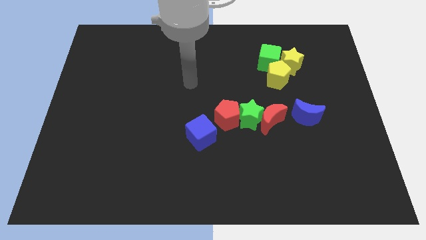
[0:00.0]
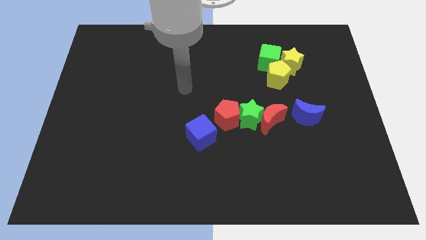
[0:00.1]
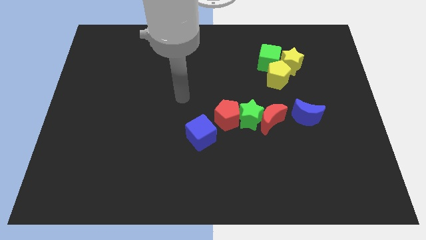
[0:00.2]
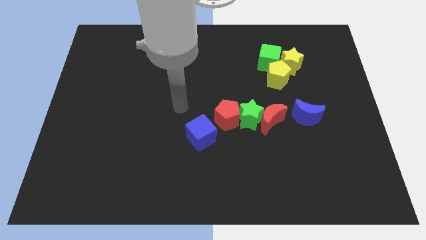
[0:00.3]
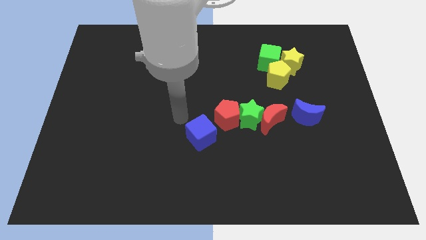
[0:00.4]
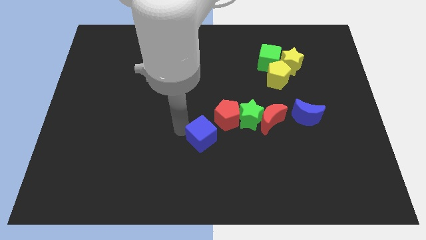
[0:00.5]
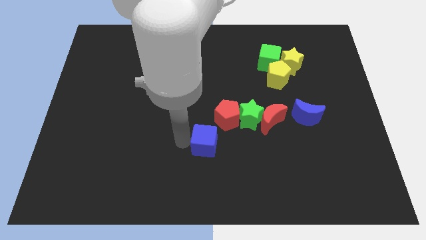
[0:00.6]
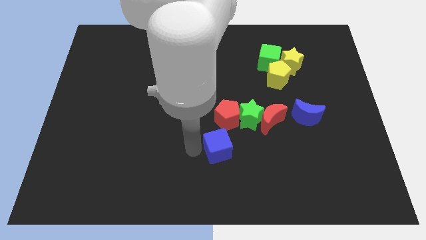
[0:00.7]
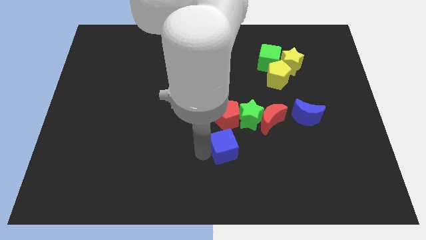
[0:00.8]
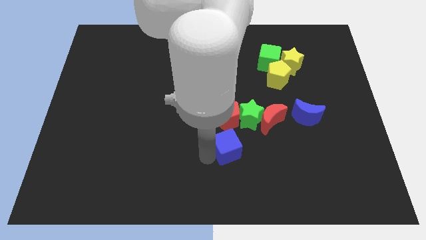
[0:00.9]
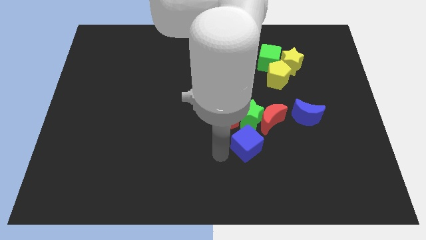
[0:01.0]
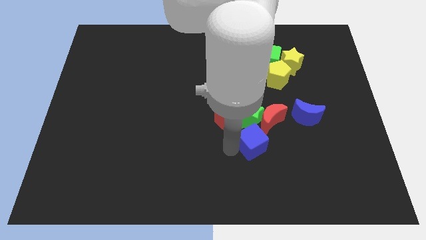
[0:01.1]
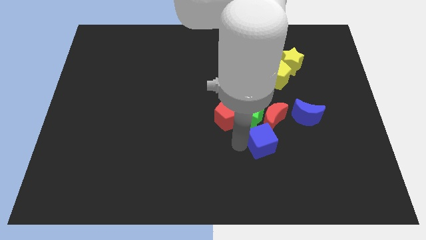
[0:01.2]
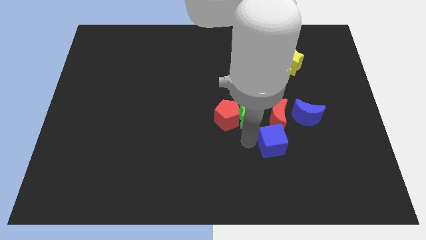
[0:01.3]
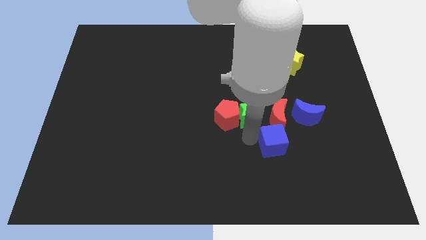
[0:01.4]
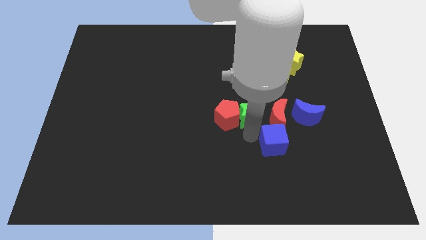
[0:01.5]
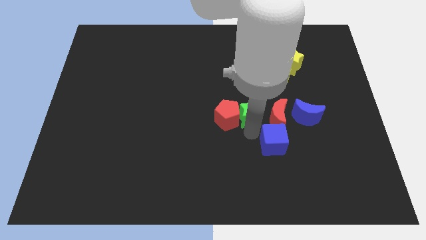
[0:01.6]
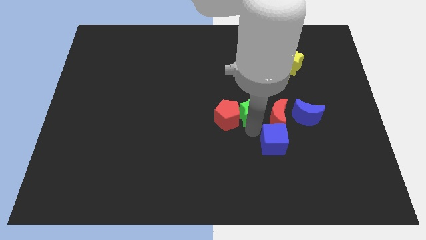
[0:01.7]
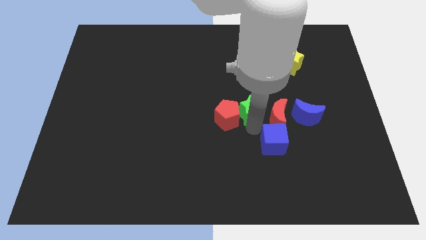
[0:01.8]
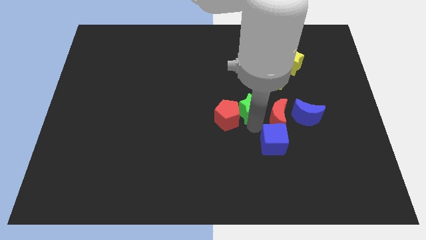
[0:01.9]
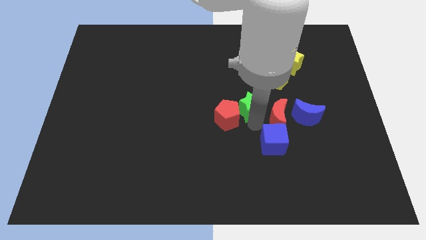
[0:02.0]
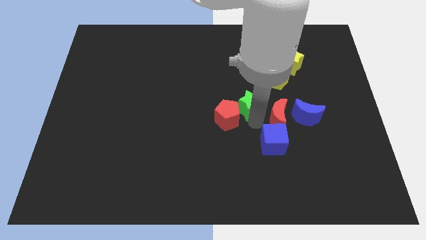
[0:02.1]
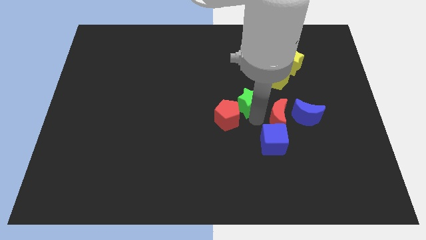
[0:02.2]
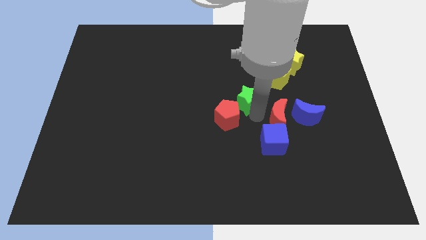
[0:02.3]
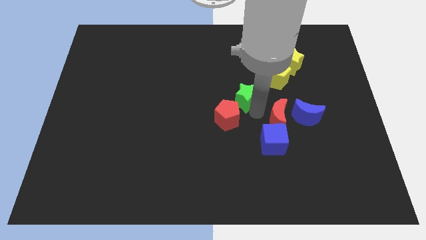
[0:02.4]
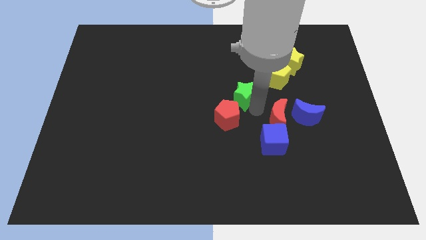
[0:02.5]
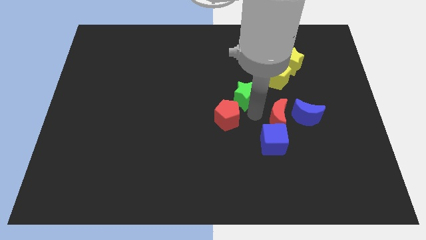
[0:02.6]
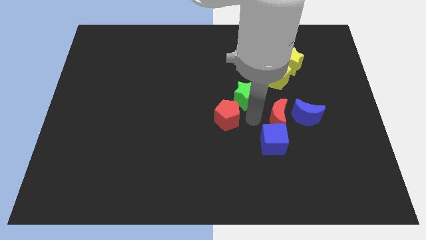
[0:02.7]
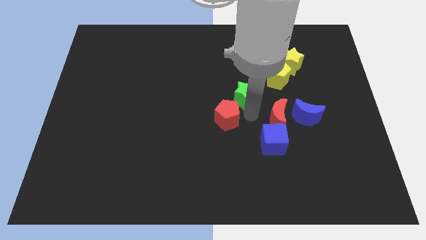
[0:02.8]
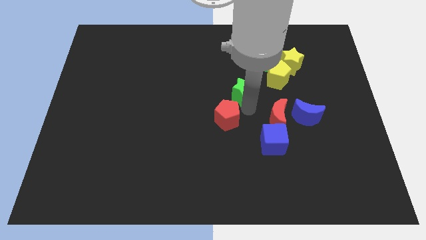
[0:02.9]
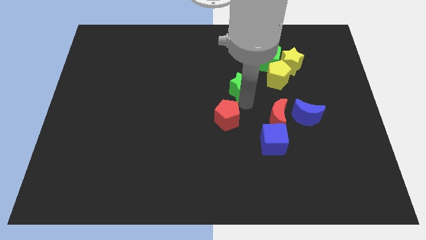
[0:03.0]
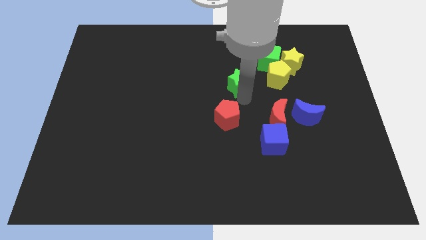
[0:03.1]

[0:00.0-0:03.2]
separate the green star from the red pentagon and red moon

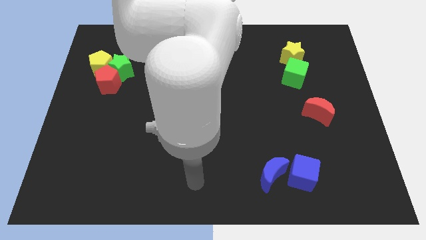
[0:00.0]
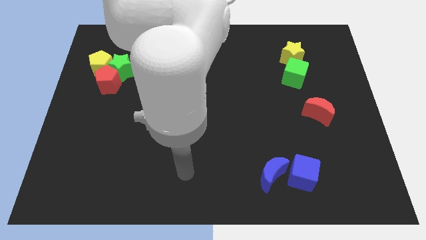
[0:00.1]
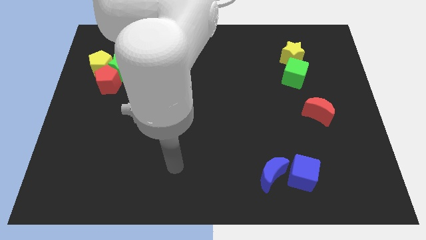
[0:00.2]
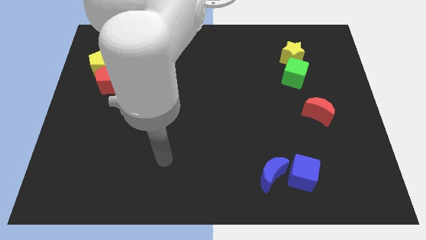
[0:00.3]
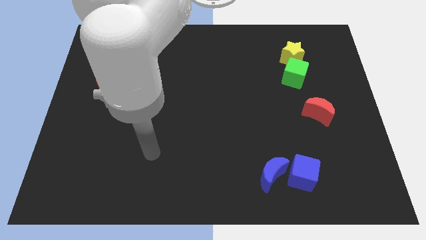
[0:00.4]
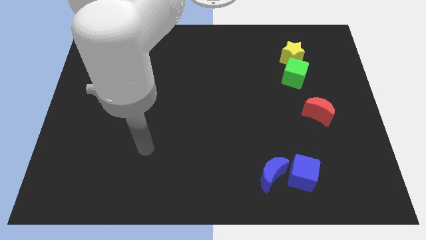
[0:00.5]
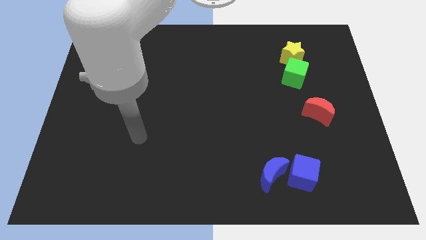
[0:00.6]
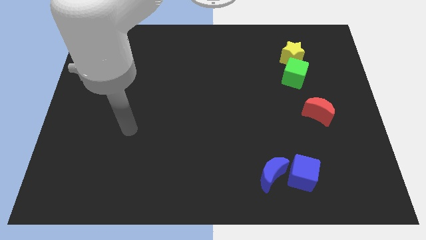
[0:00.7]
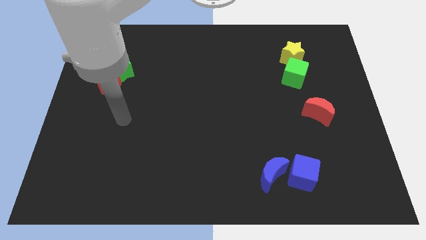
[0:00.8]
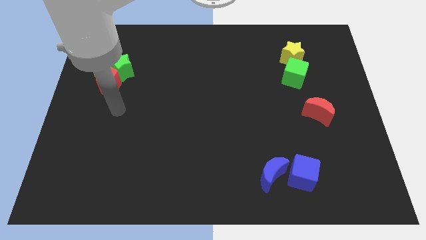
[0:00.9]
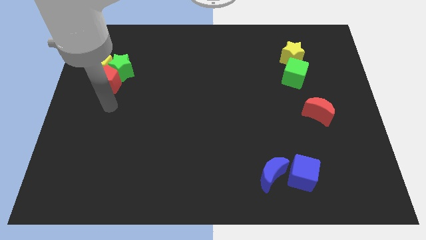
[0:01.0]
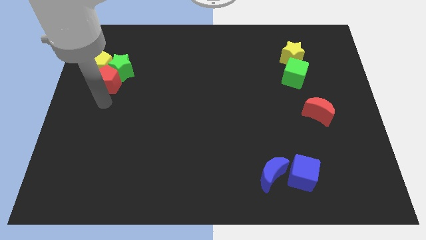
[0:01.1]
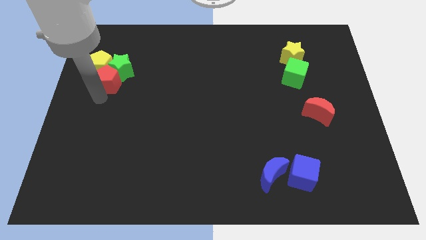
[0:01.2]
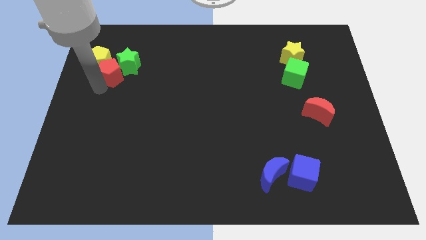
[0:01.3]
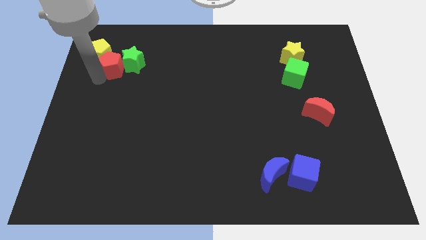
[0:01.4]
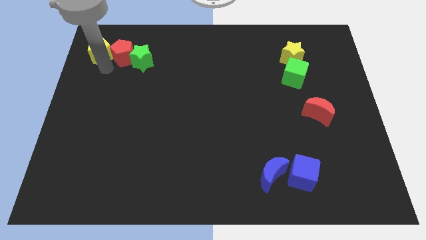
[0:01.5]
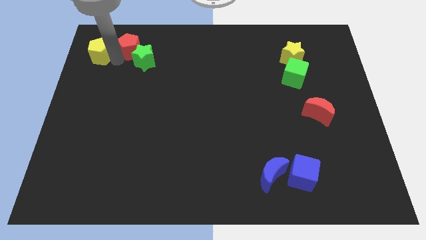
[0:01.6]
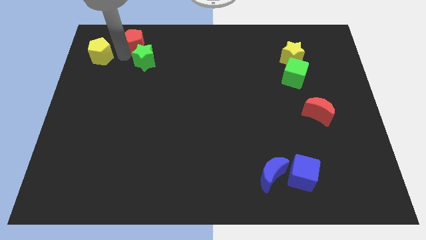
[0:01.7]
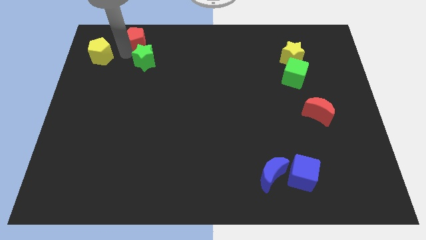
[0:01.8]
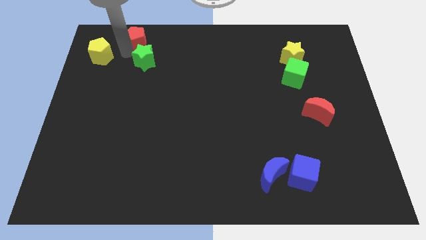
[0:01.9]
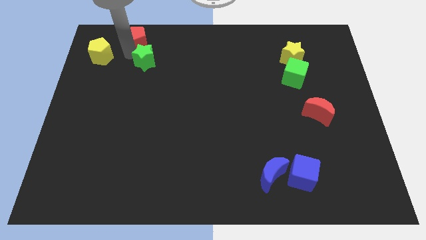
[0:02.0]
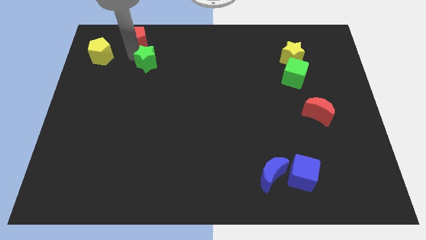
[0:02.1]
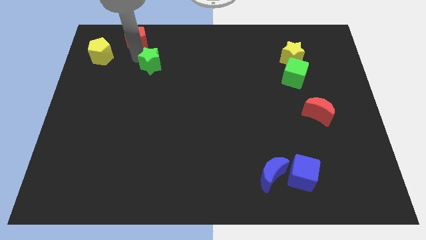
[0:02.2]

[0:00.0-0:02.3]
pull the green star apart from the red pentagon and yellow pentagon

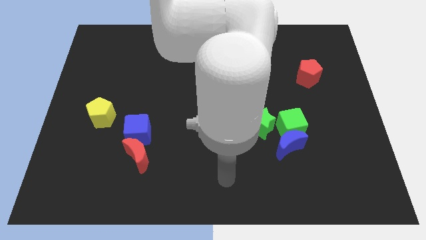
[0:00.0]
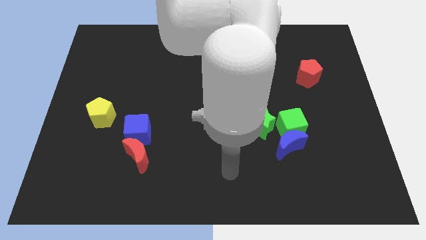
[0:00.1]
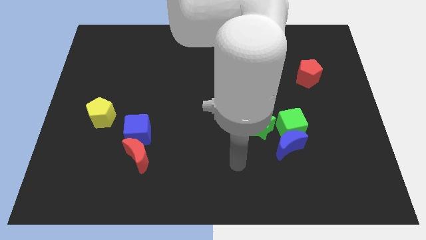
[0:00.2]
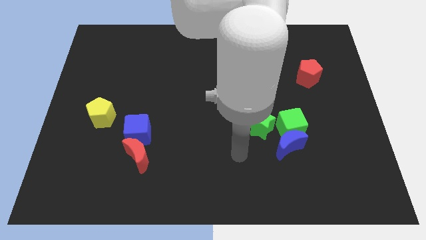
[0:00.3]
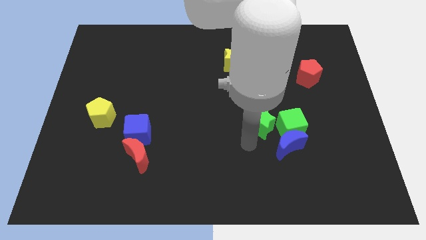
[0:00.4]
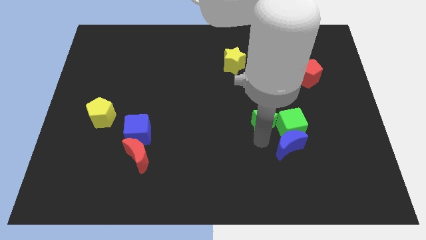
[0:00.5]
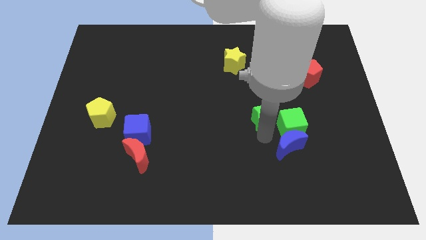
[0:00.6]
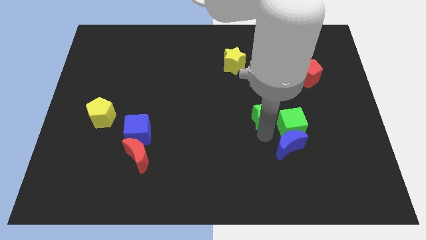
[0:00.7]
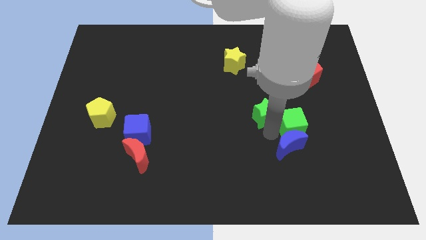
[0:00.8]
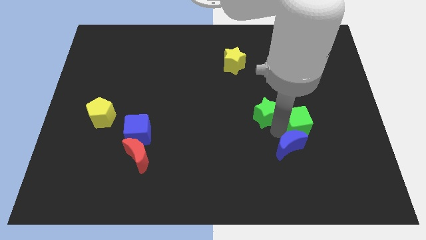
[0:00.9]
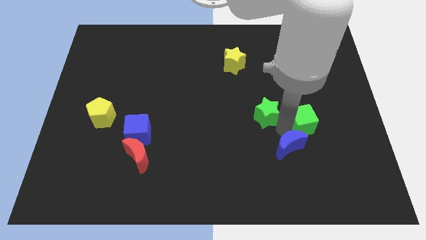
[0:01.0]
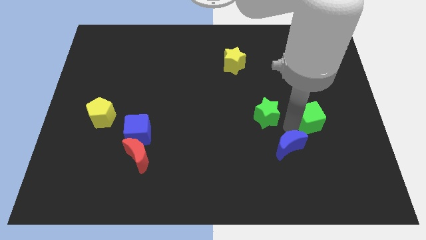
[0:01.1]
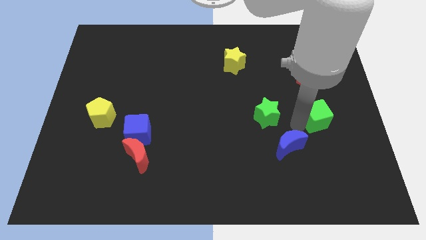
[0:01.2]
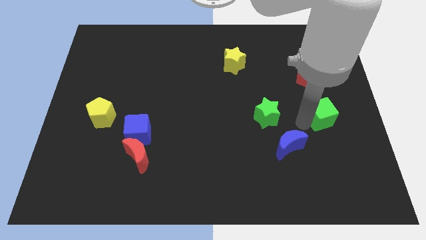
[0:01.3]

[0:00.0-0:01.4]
separate the green cube from the blue moon and green star

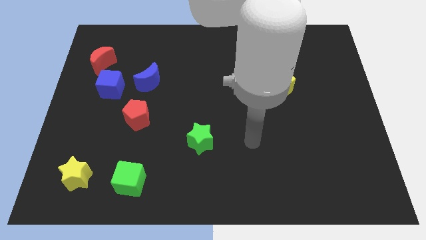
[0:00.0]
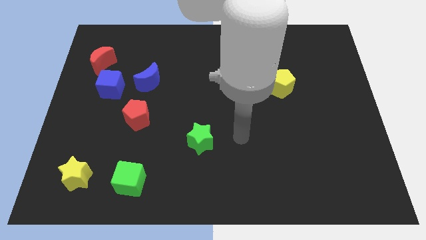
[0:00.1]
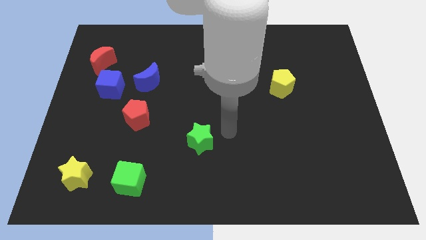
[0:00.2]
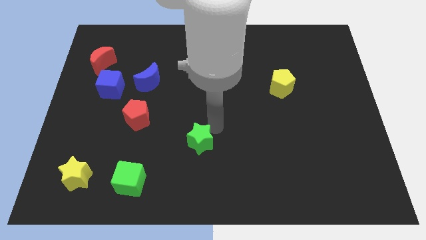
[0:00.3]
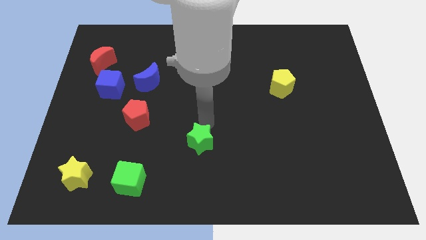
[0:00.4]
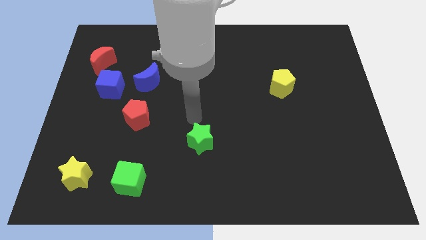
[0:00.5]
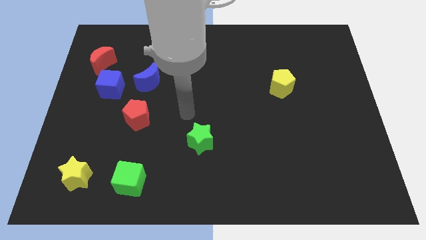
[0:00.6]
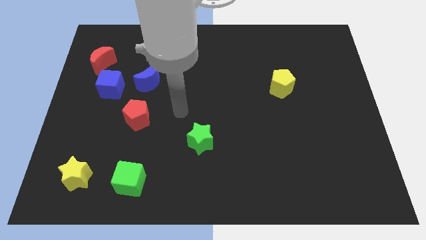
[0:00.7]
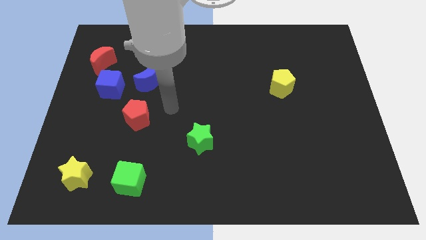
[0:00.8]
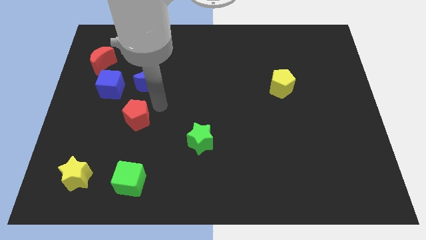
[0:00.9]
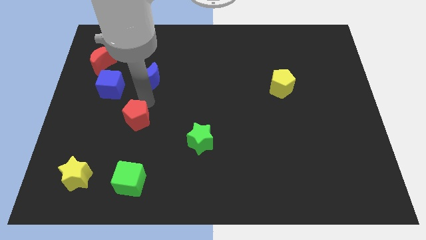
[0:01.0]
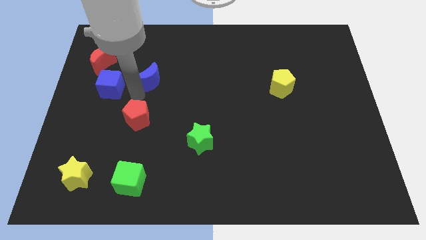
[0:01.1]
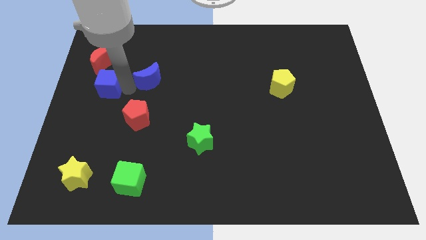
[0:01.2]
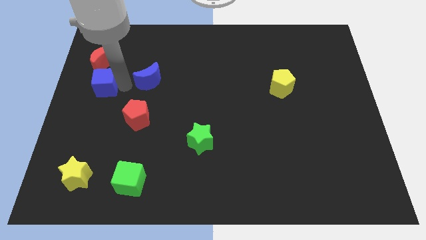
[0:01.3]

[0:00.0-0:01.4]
pull the blue moon apart from the blue cube

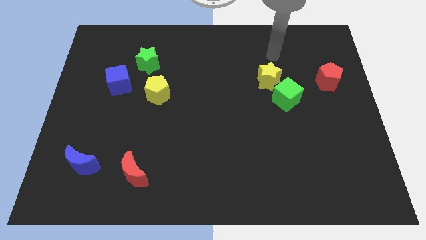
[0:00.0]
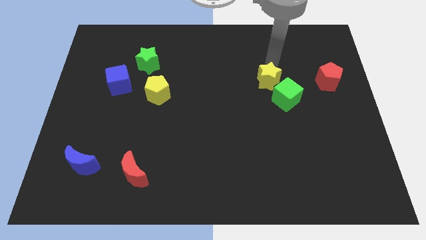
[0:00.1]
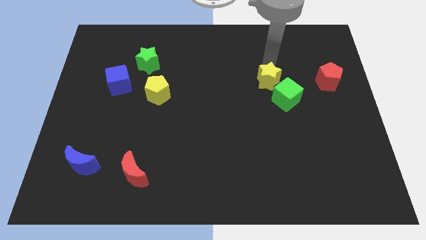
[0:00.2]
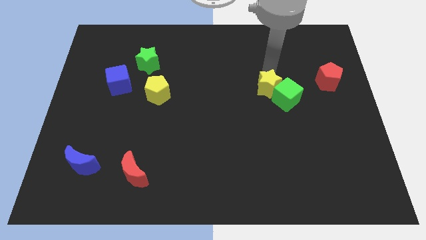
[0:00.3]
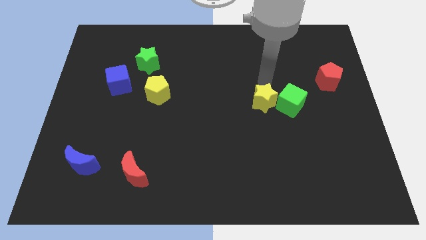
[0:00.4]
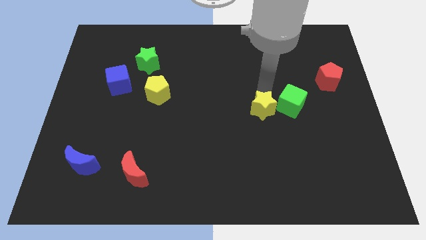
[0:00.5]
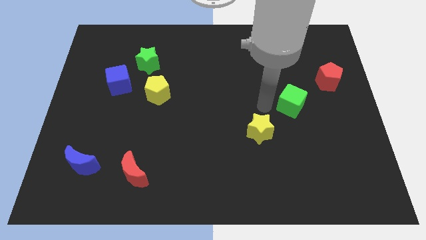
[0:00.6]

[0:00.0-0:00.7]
pull the green cube apart from the yellow star

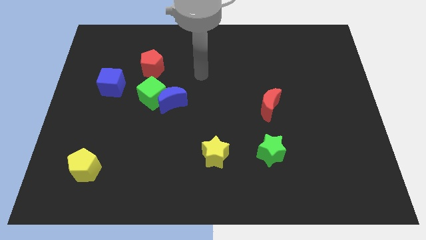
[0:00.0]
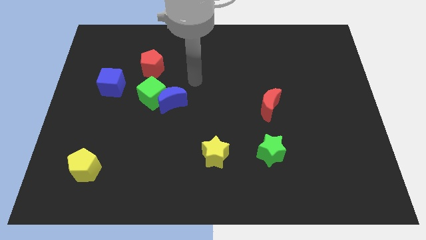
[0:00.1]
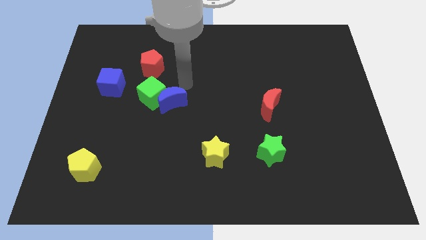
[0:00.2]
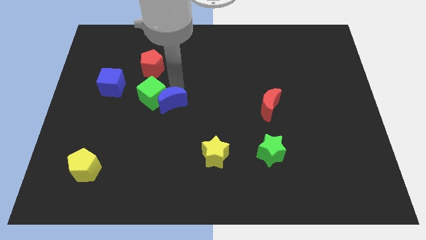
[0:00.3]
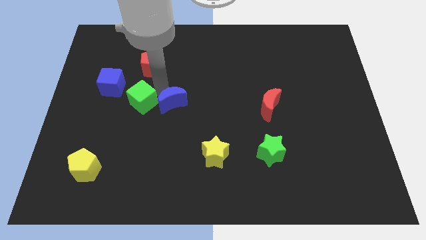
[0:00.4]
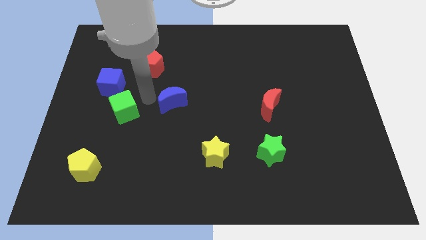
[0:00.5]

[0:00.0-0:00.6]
pull the blue moon apart from the green cube
